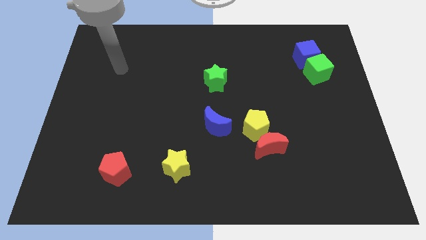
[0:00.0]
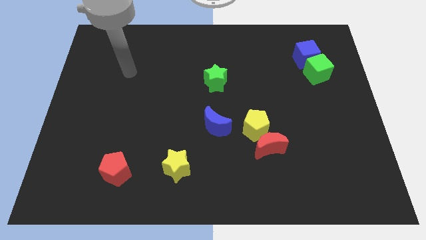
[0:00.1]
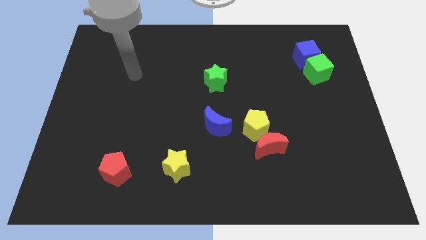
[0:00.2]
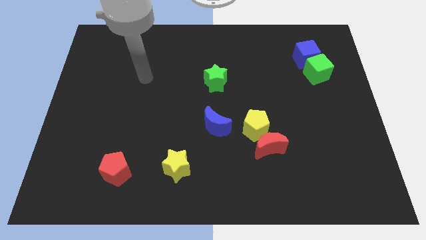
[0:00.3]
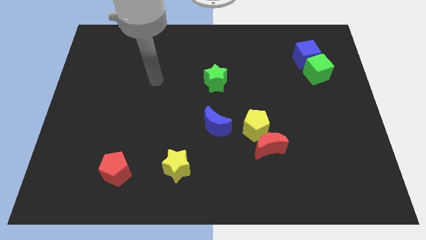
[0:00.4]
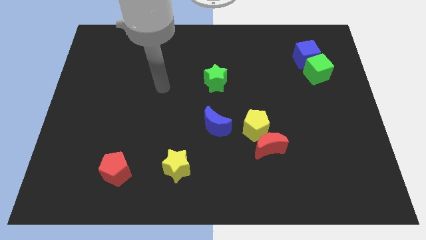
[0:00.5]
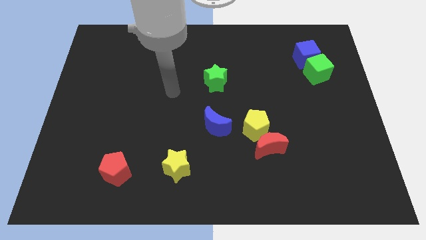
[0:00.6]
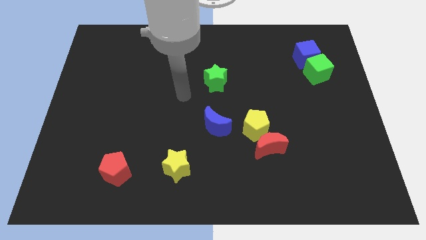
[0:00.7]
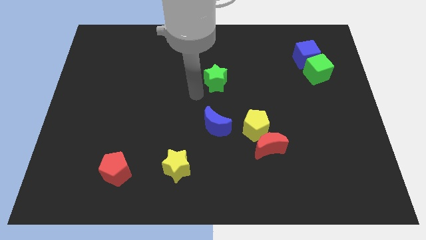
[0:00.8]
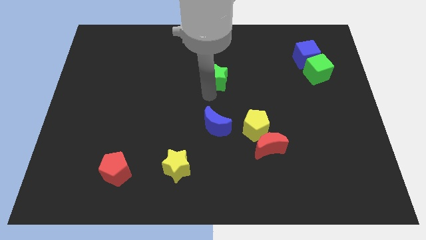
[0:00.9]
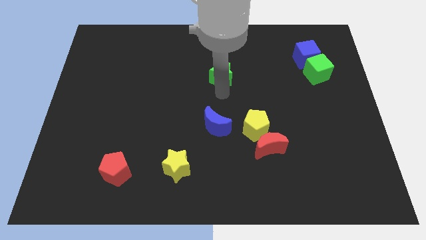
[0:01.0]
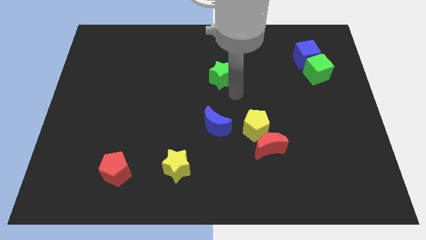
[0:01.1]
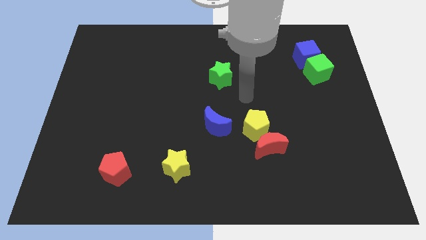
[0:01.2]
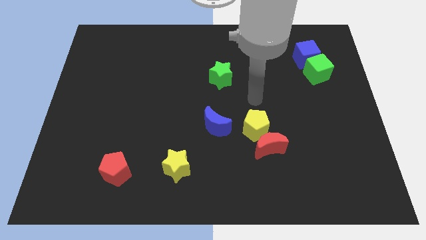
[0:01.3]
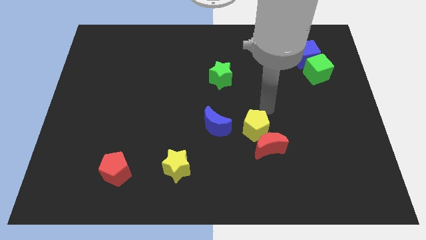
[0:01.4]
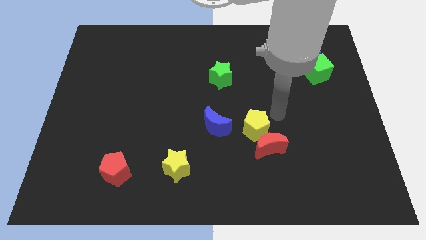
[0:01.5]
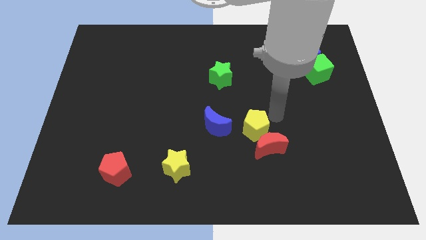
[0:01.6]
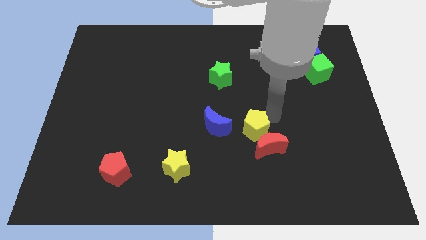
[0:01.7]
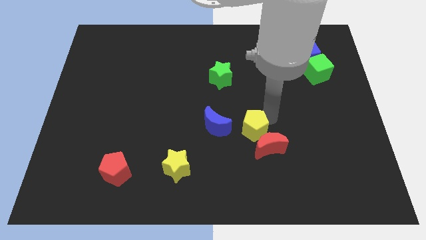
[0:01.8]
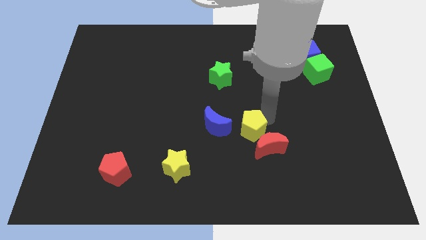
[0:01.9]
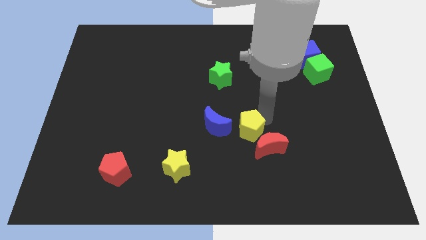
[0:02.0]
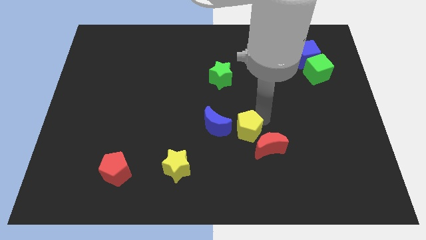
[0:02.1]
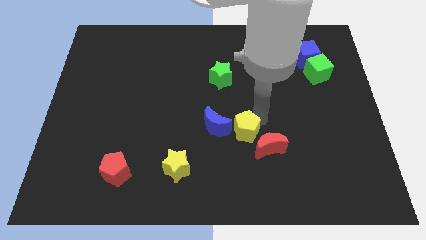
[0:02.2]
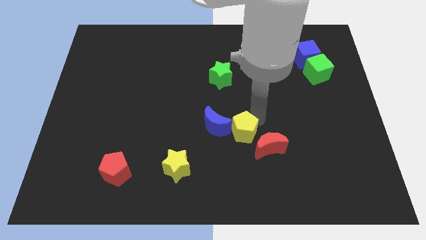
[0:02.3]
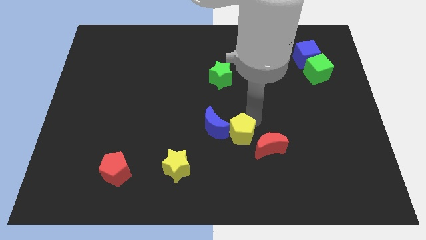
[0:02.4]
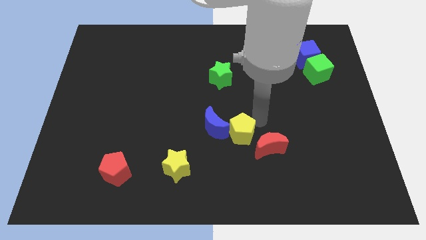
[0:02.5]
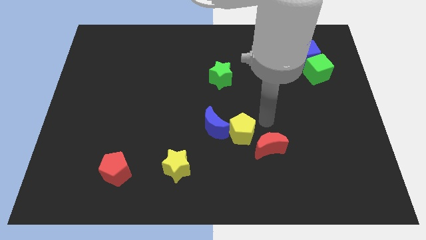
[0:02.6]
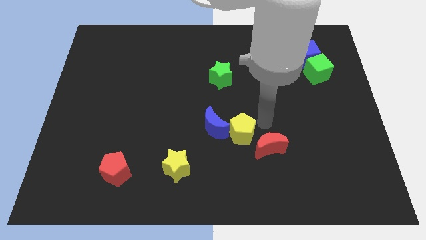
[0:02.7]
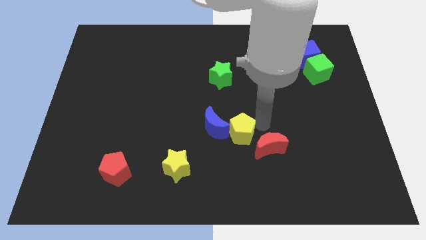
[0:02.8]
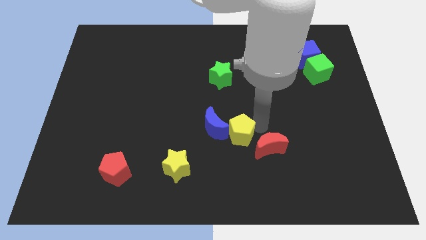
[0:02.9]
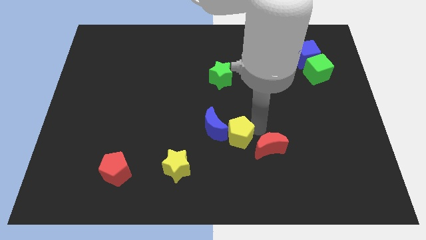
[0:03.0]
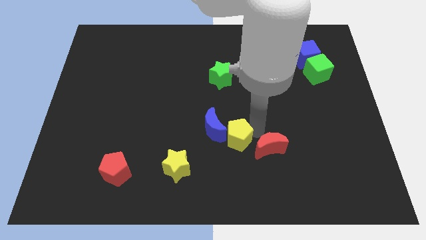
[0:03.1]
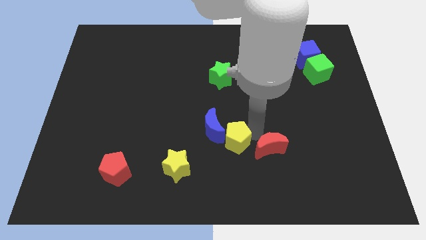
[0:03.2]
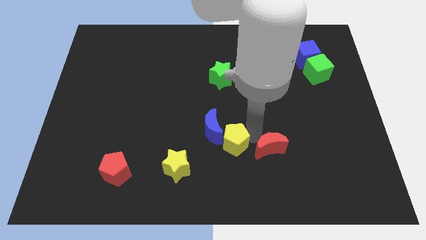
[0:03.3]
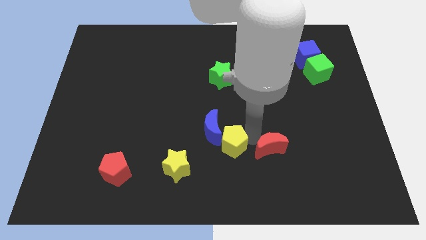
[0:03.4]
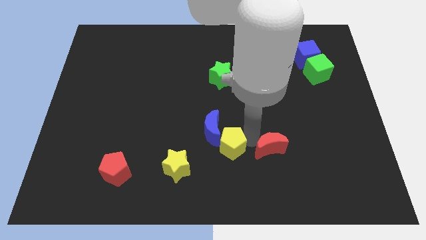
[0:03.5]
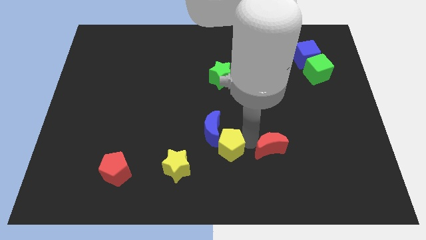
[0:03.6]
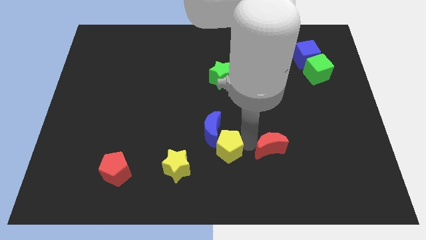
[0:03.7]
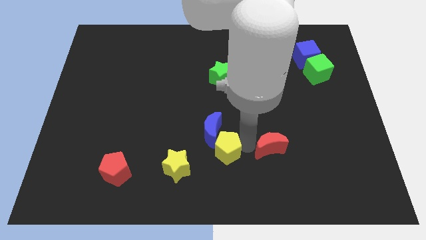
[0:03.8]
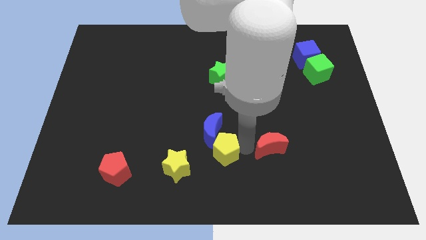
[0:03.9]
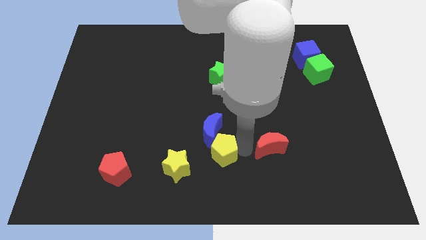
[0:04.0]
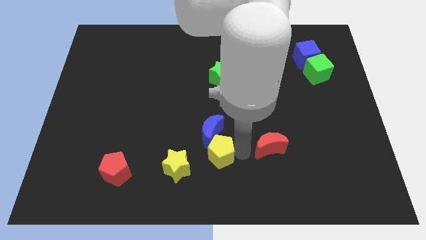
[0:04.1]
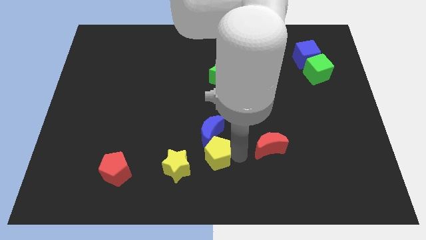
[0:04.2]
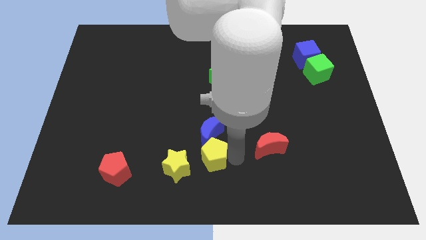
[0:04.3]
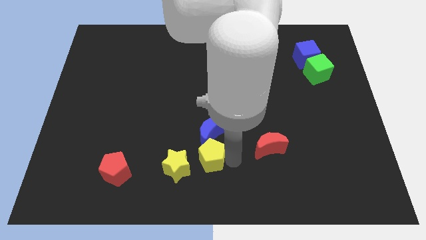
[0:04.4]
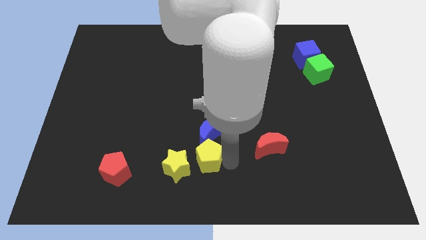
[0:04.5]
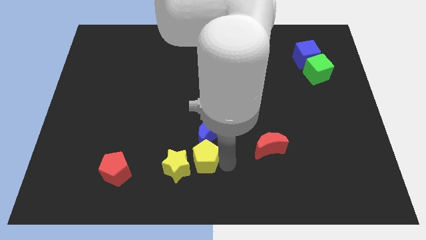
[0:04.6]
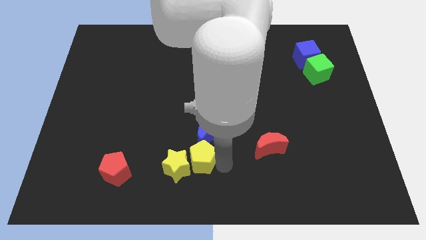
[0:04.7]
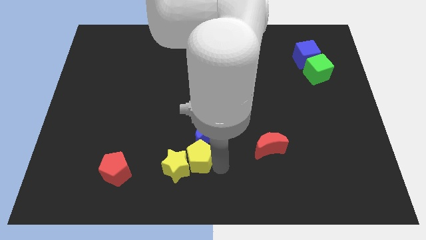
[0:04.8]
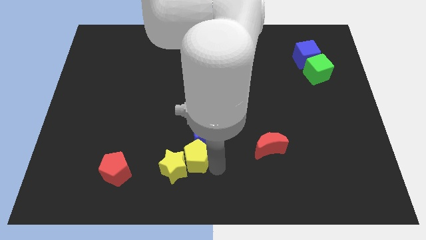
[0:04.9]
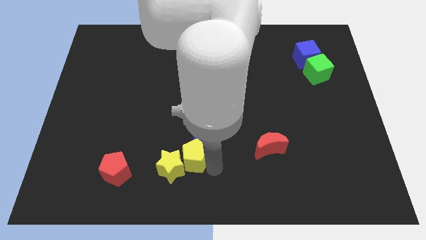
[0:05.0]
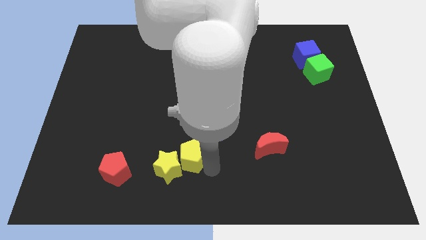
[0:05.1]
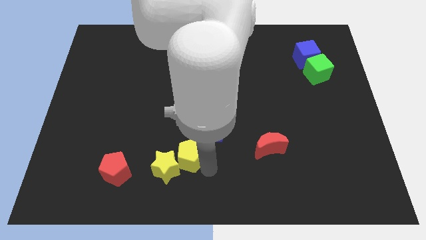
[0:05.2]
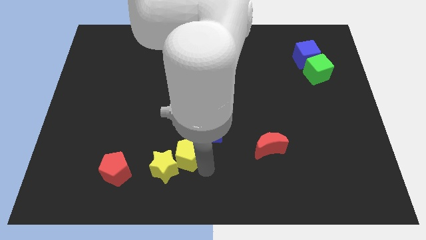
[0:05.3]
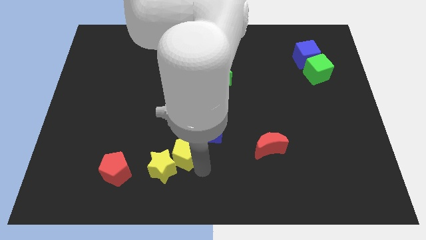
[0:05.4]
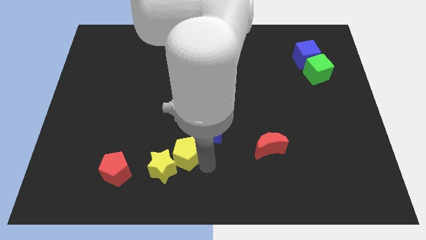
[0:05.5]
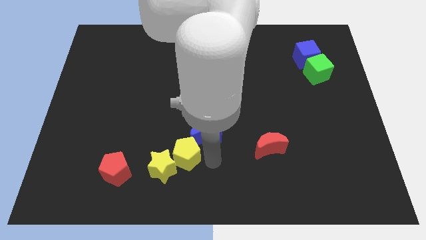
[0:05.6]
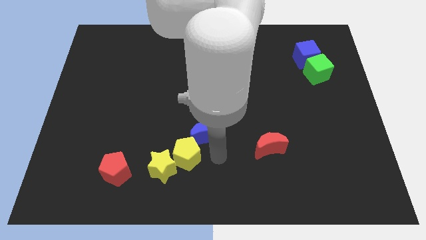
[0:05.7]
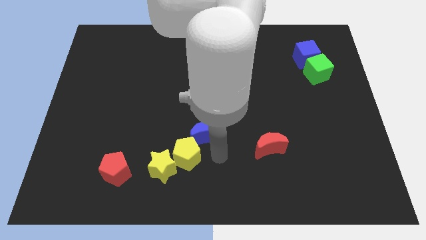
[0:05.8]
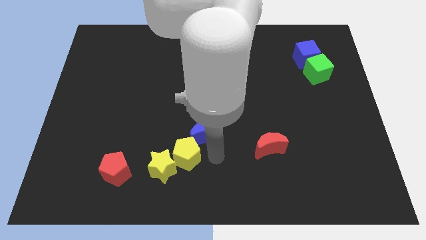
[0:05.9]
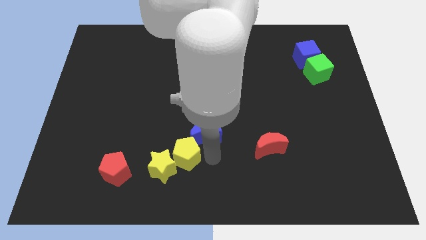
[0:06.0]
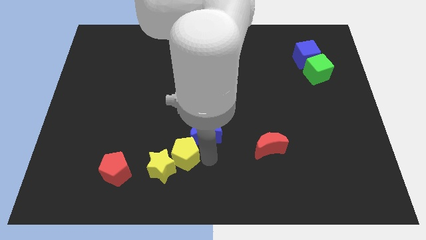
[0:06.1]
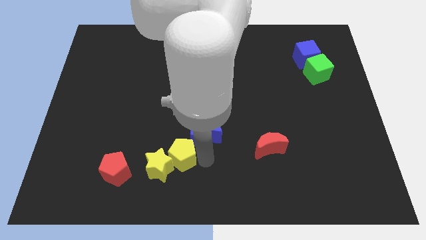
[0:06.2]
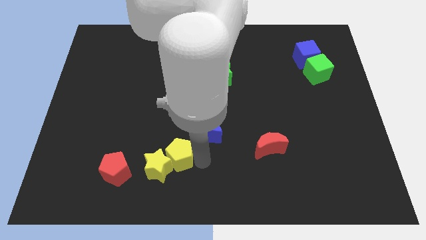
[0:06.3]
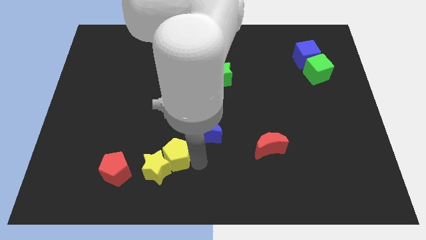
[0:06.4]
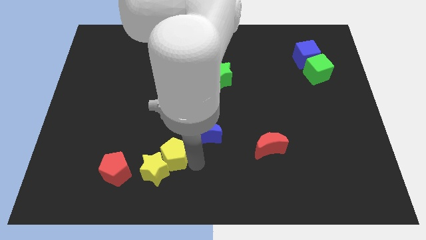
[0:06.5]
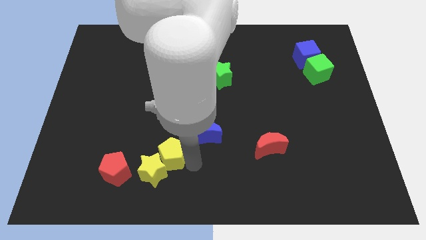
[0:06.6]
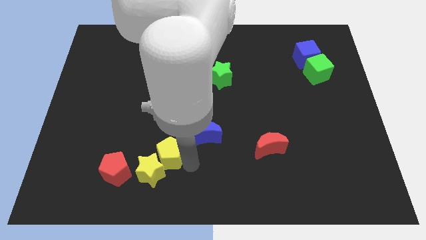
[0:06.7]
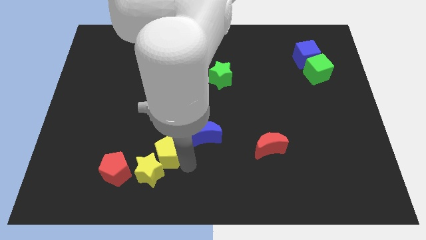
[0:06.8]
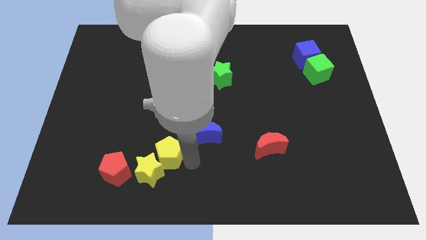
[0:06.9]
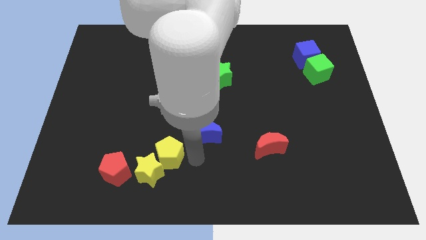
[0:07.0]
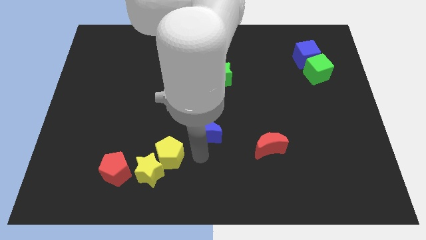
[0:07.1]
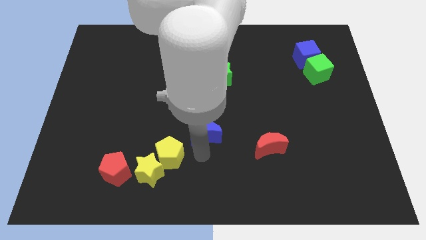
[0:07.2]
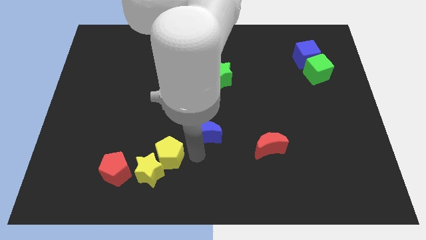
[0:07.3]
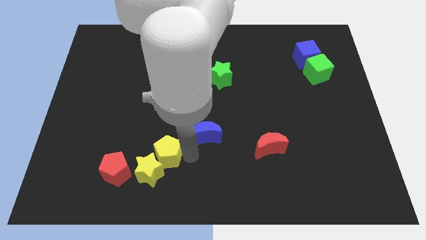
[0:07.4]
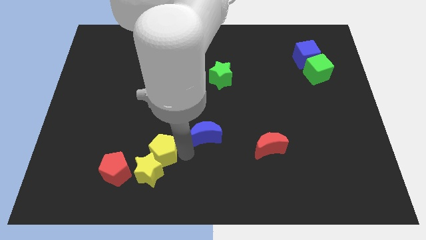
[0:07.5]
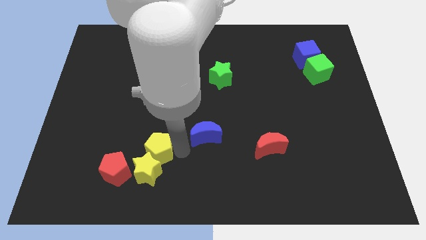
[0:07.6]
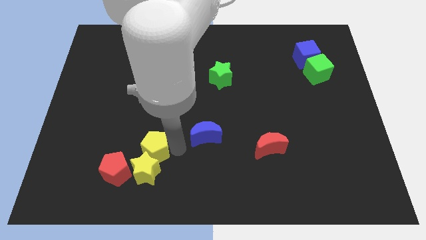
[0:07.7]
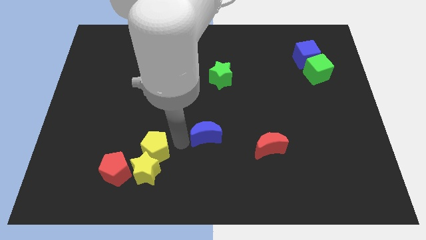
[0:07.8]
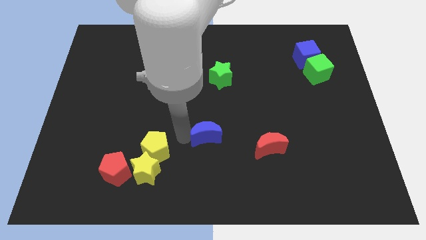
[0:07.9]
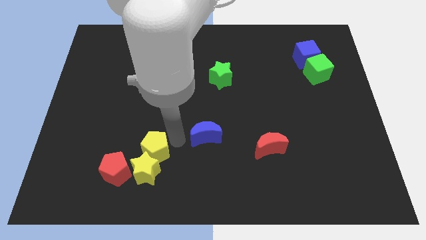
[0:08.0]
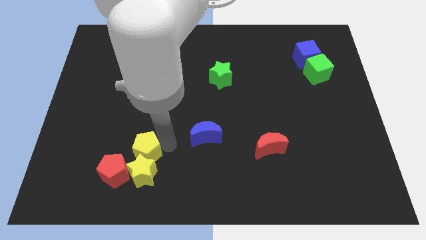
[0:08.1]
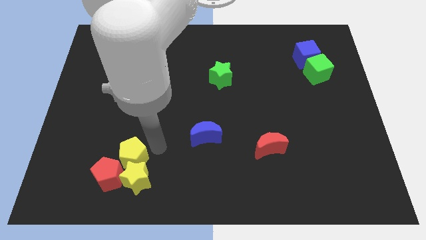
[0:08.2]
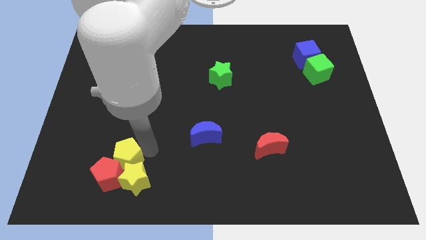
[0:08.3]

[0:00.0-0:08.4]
move the yellow pentagon next to the red pentagon
